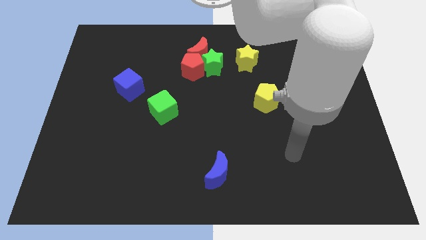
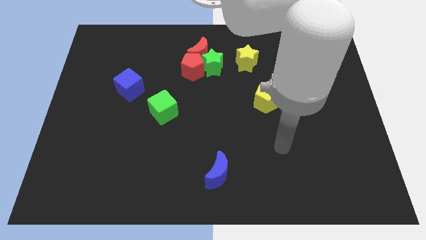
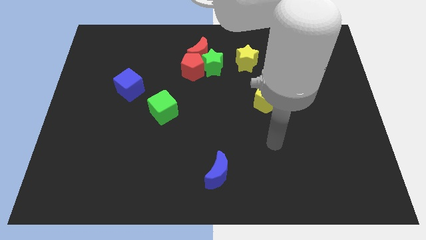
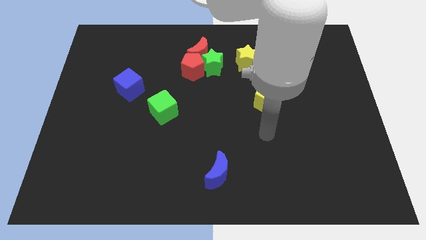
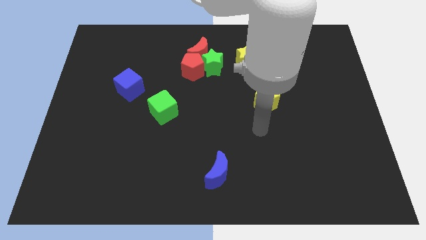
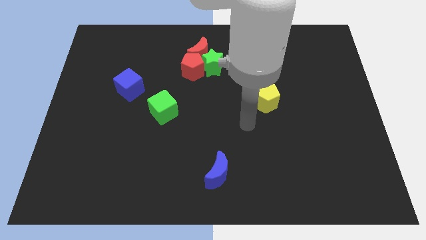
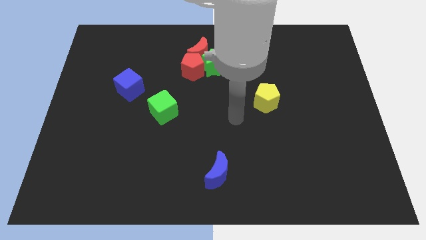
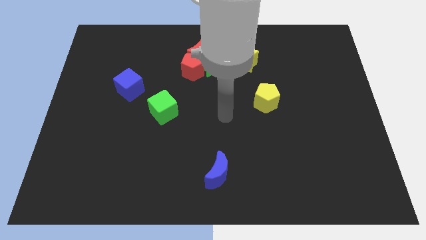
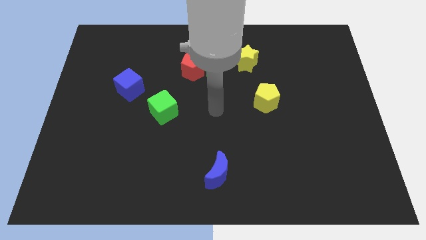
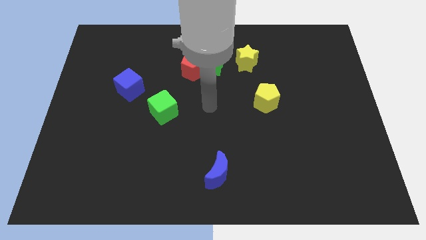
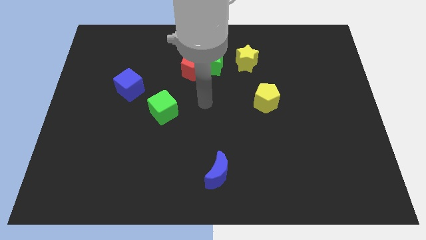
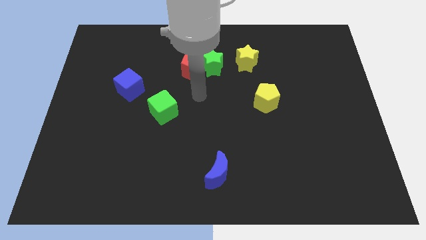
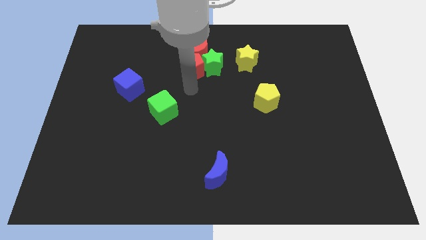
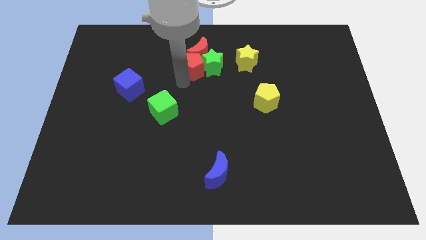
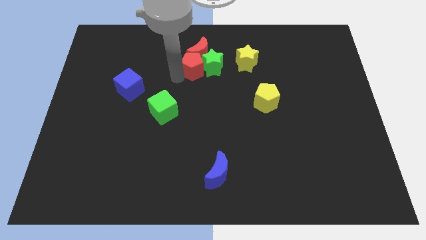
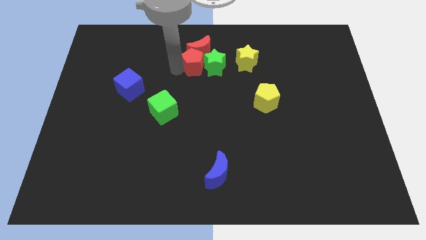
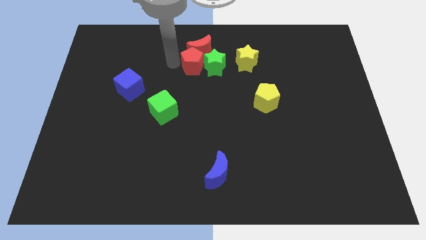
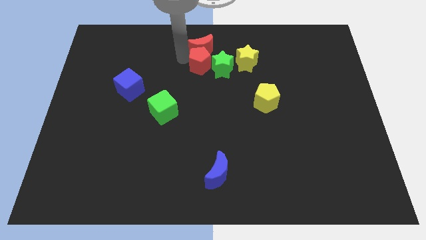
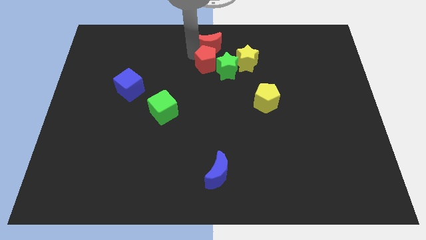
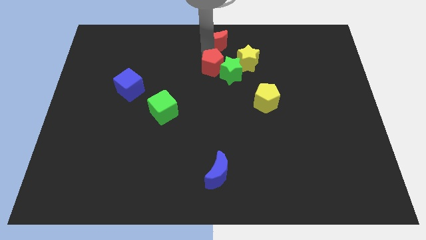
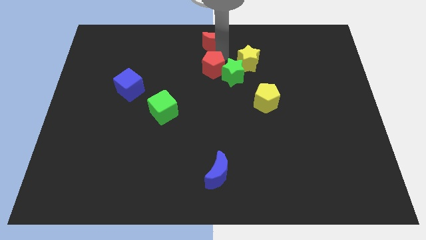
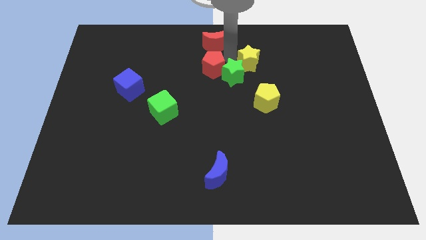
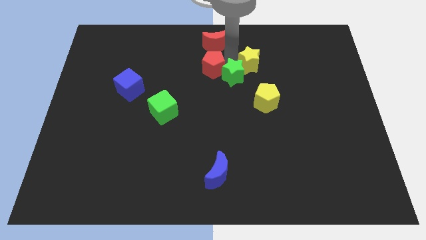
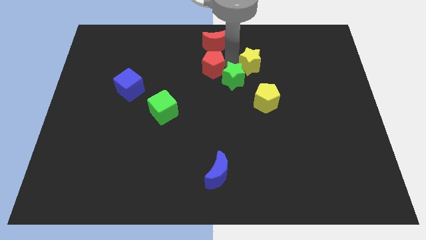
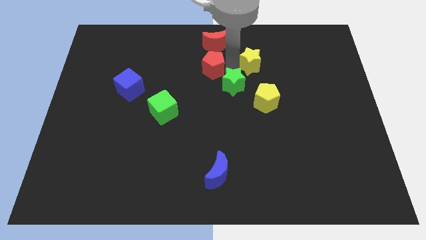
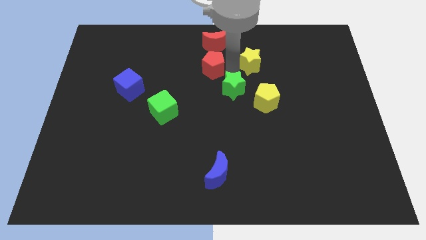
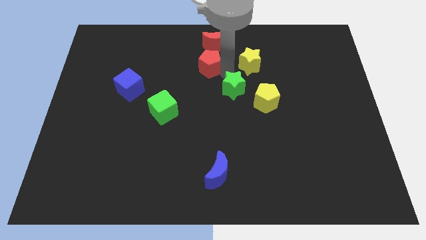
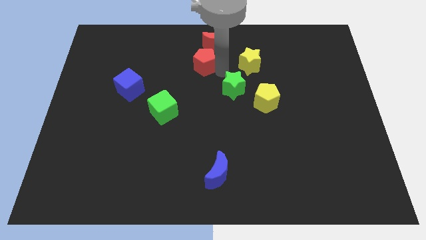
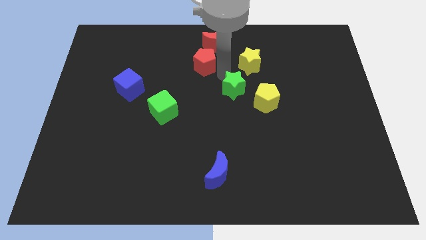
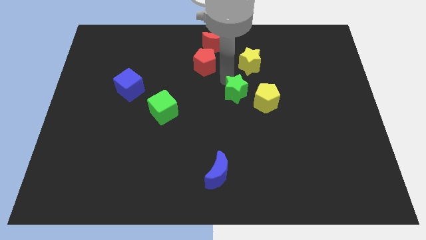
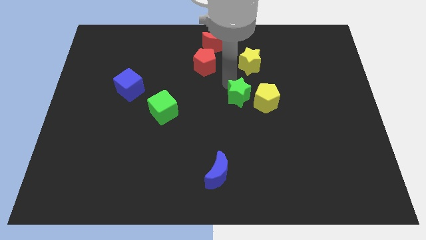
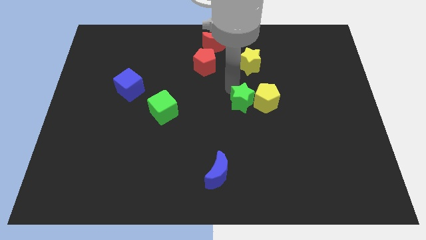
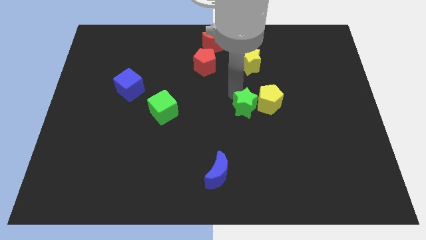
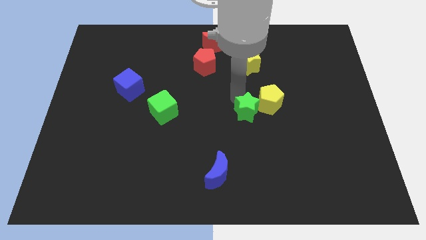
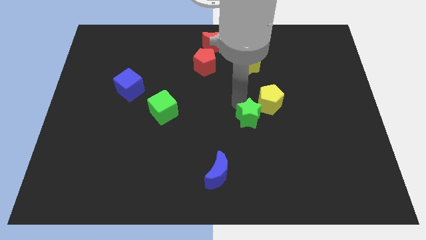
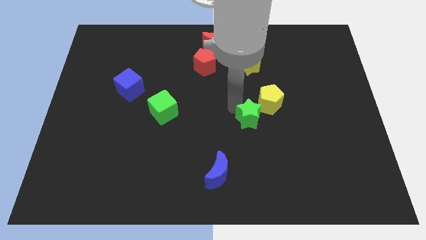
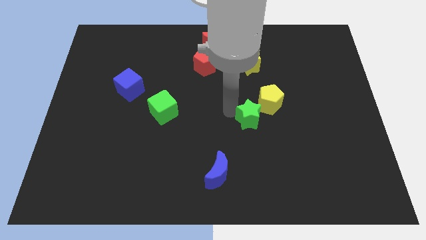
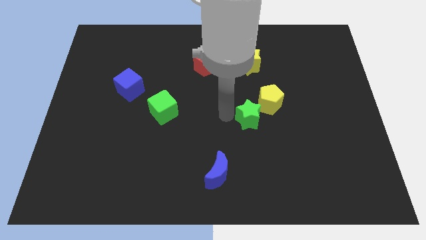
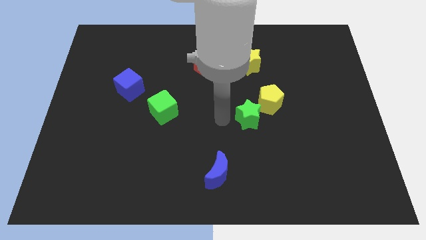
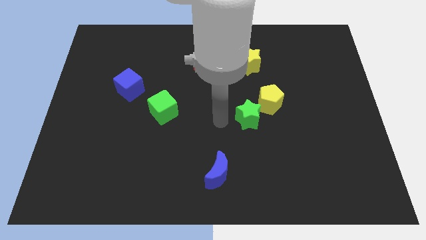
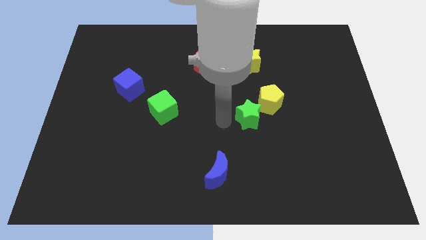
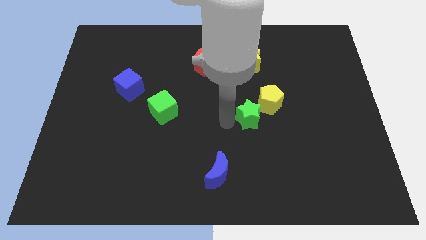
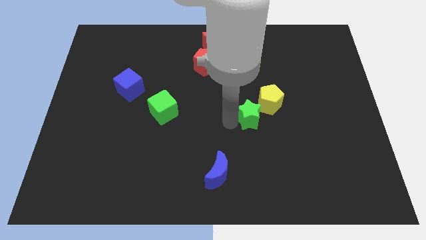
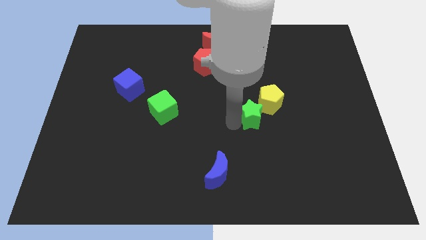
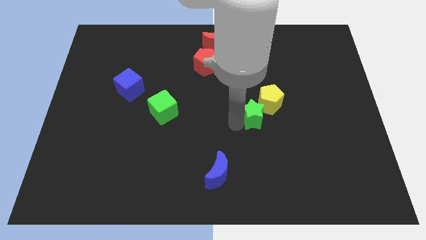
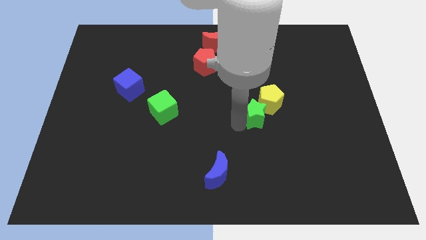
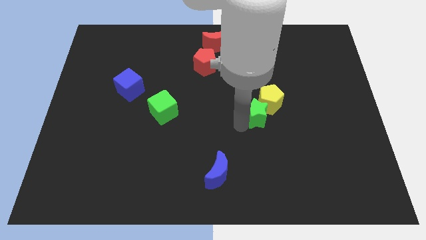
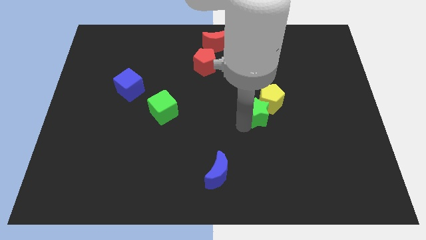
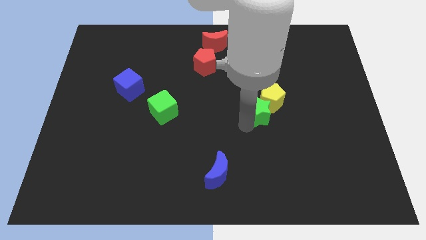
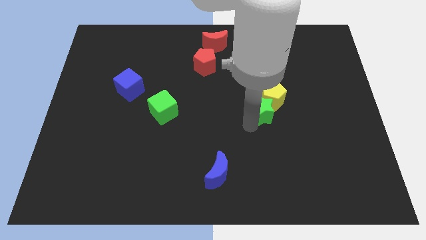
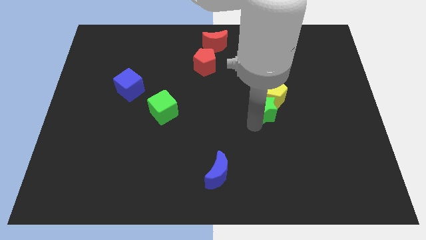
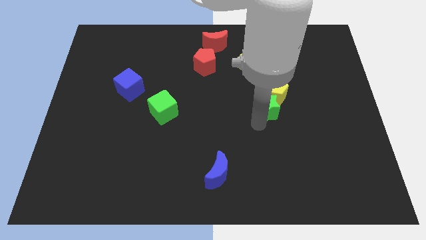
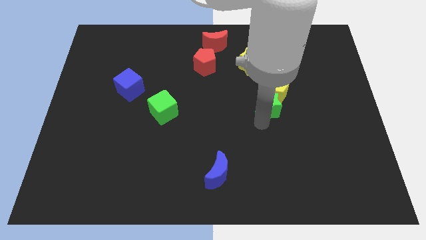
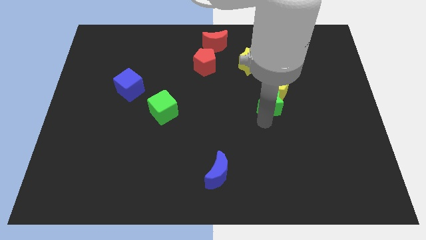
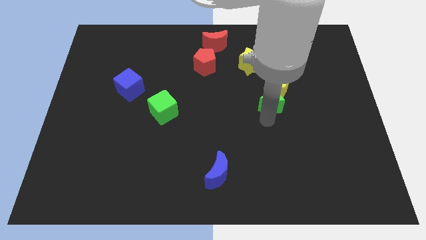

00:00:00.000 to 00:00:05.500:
push the green star to the bottom right side of the yellow pentagon
